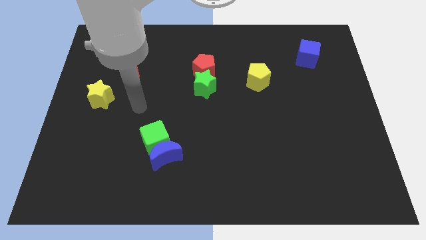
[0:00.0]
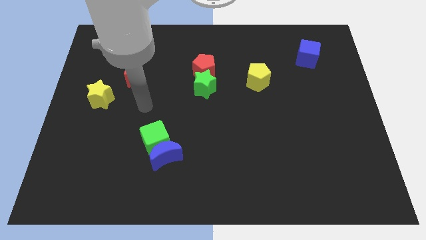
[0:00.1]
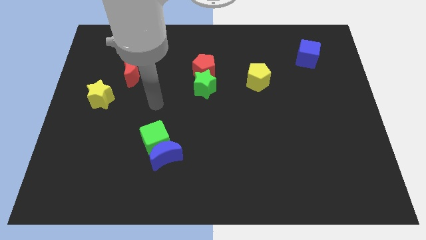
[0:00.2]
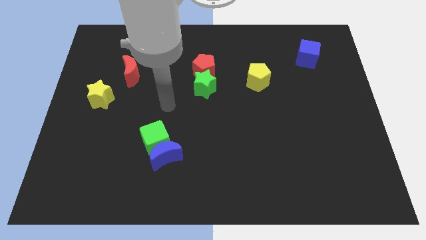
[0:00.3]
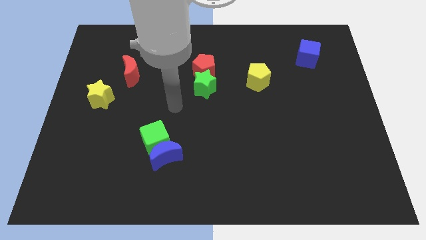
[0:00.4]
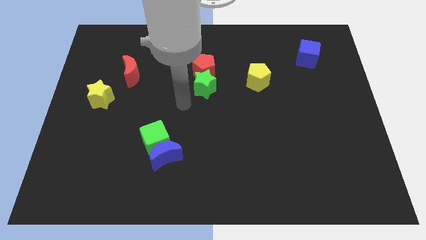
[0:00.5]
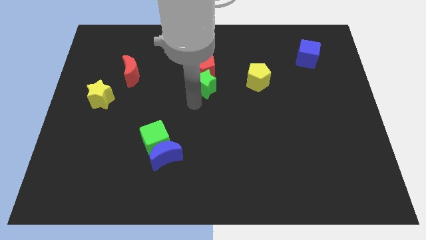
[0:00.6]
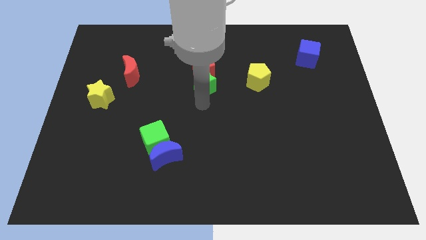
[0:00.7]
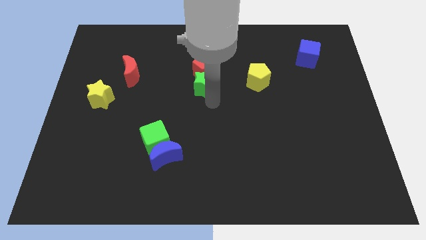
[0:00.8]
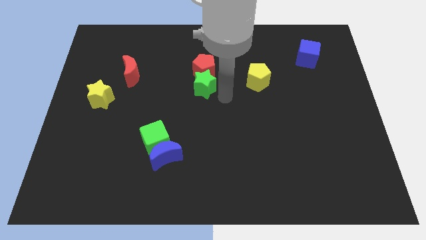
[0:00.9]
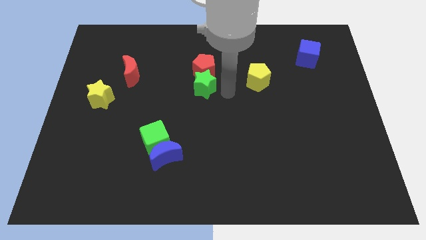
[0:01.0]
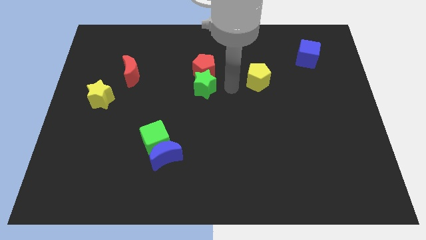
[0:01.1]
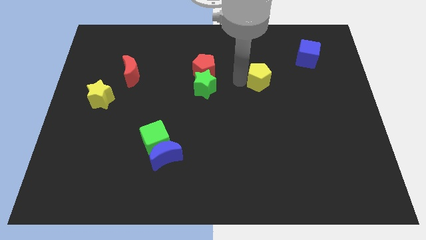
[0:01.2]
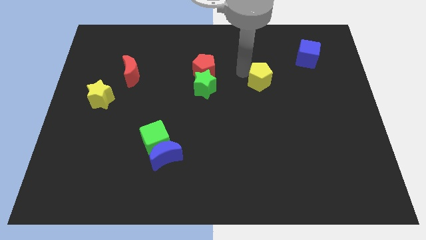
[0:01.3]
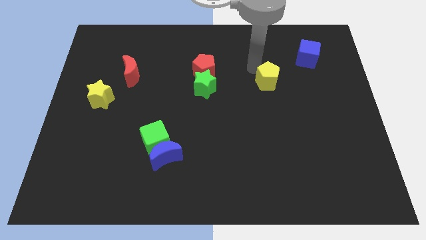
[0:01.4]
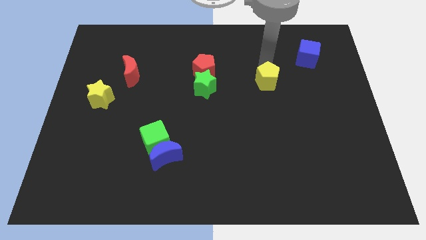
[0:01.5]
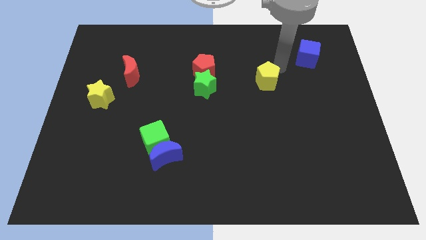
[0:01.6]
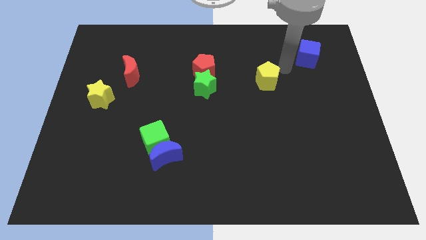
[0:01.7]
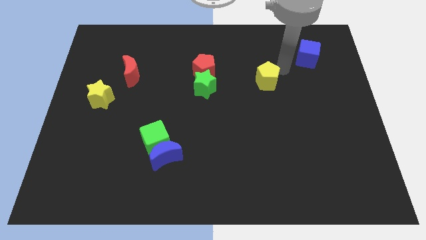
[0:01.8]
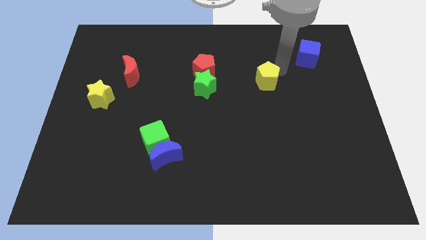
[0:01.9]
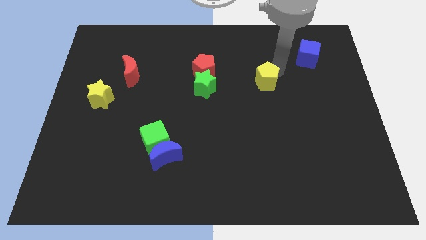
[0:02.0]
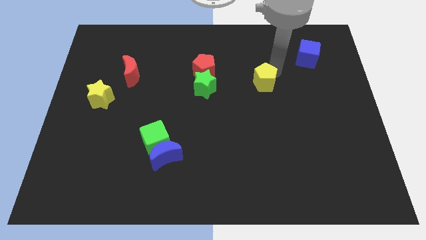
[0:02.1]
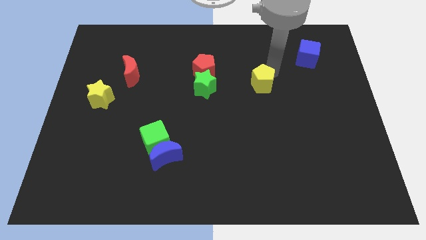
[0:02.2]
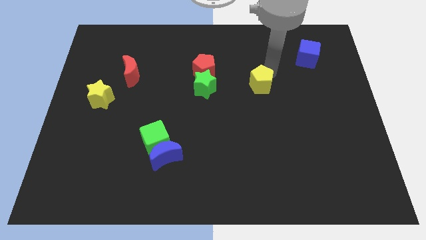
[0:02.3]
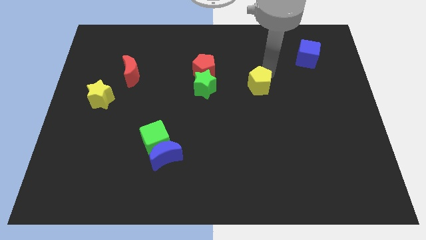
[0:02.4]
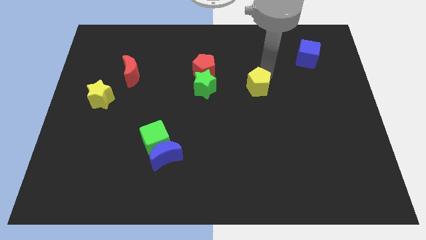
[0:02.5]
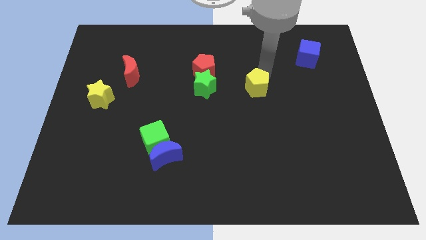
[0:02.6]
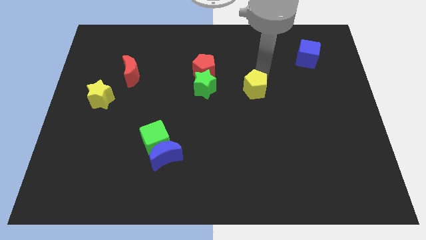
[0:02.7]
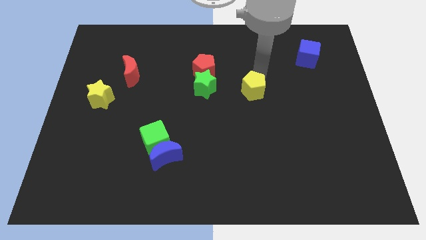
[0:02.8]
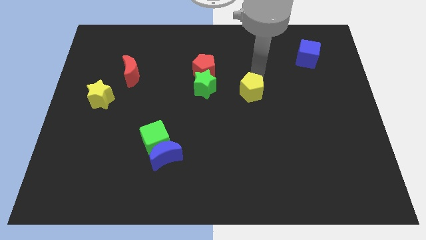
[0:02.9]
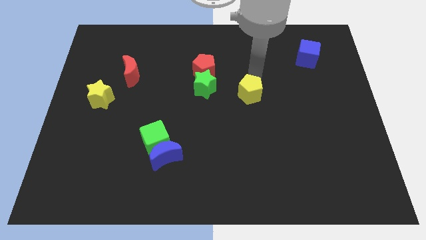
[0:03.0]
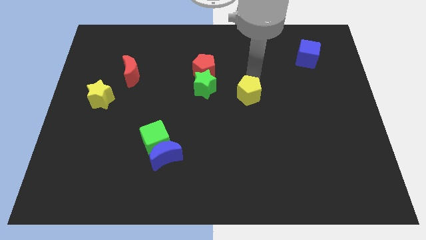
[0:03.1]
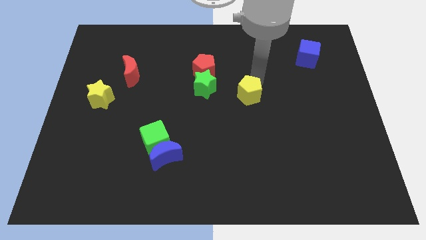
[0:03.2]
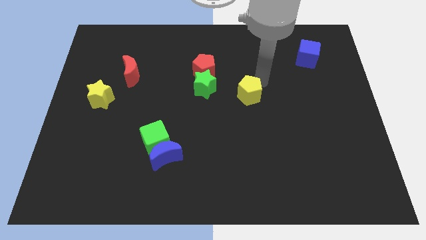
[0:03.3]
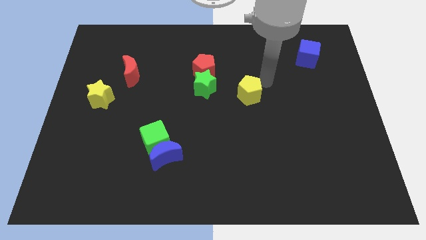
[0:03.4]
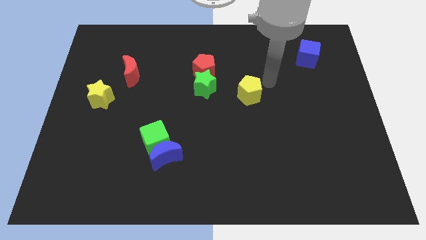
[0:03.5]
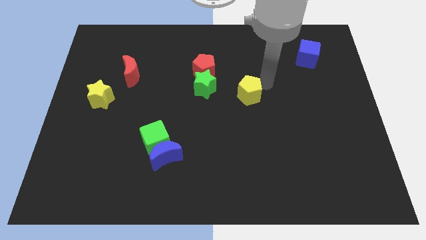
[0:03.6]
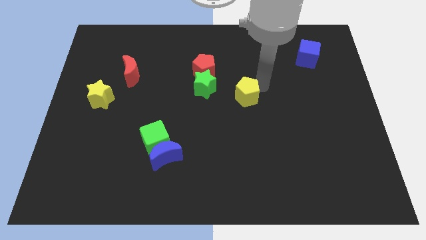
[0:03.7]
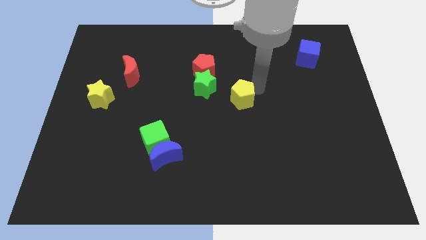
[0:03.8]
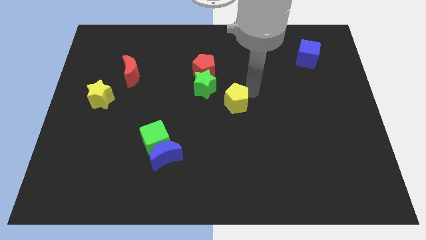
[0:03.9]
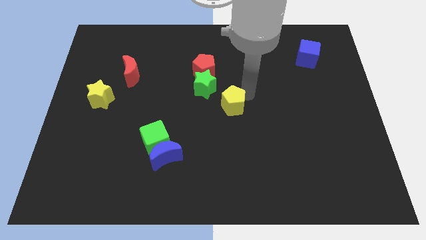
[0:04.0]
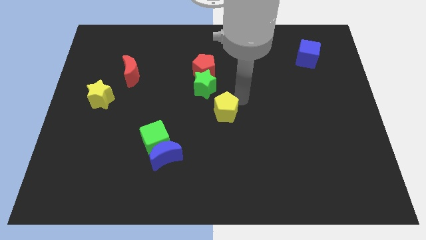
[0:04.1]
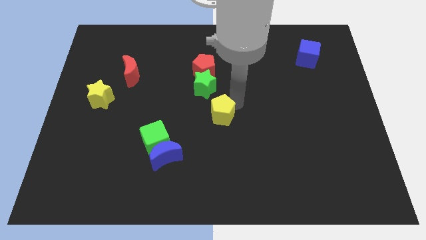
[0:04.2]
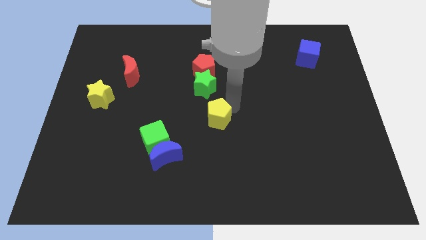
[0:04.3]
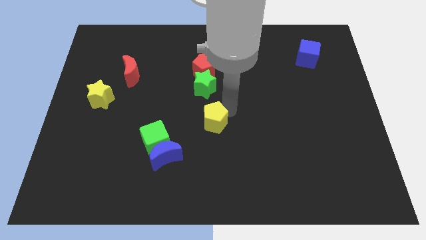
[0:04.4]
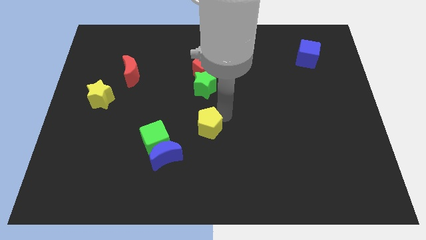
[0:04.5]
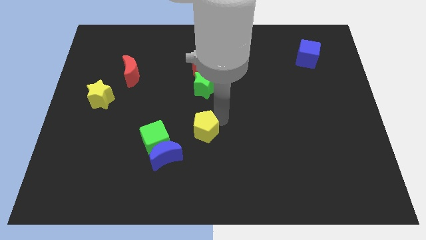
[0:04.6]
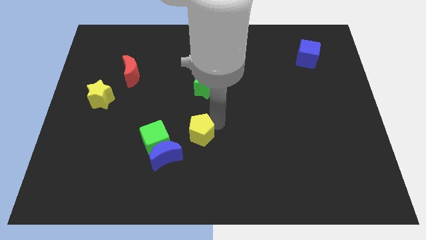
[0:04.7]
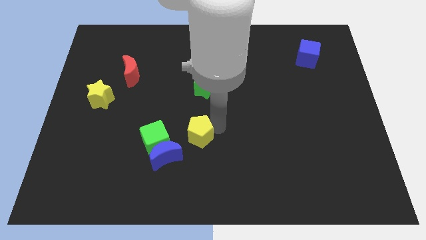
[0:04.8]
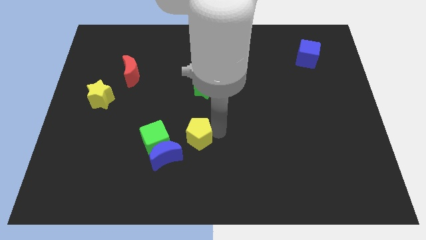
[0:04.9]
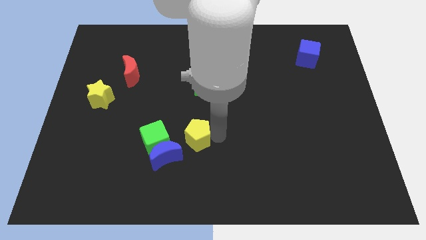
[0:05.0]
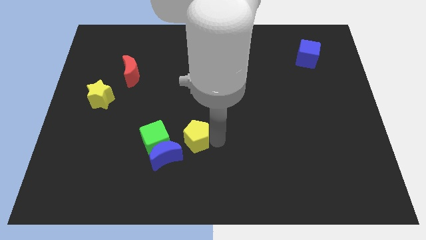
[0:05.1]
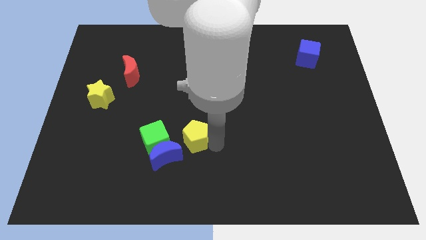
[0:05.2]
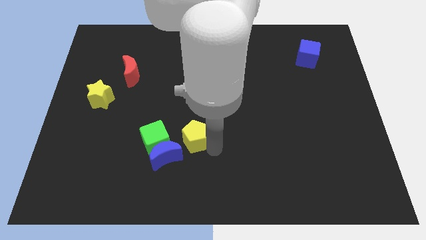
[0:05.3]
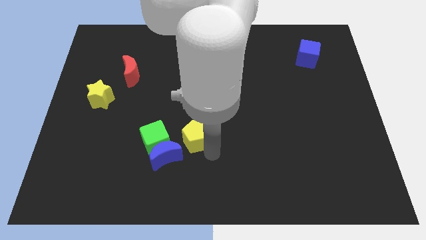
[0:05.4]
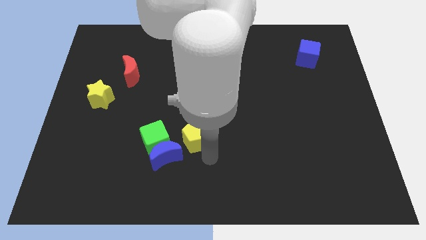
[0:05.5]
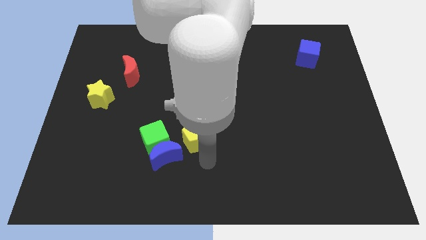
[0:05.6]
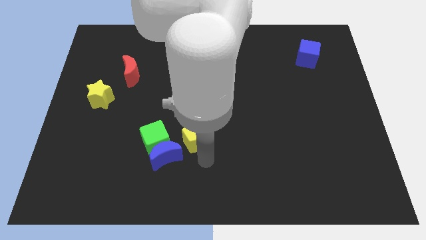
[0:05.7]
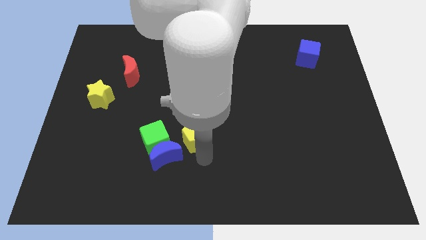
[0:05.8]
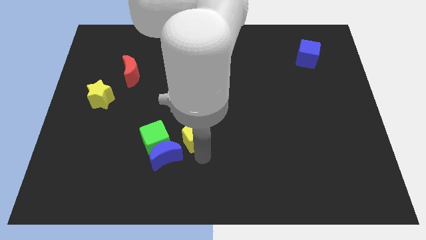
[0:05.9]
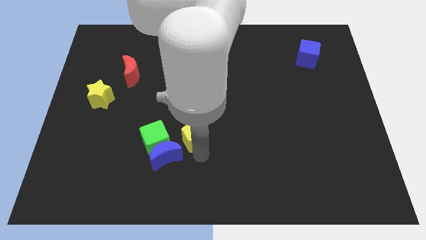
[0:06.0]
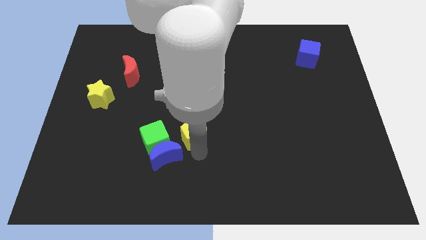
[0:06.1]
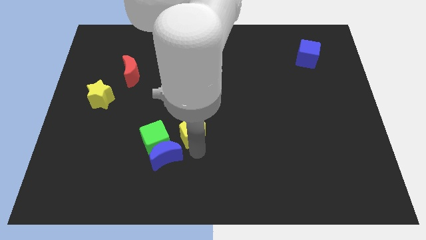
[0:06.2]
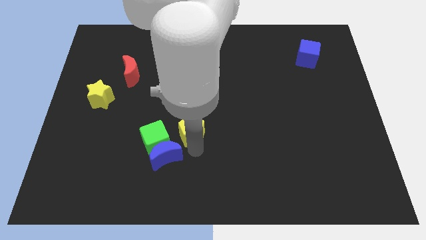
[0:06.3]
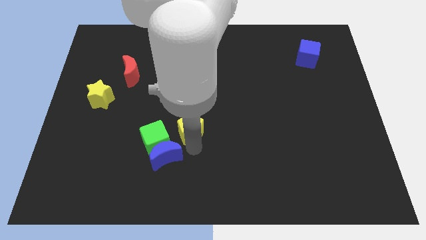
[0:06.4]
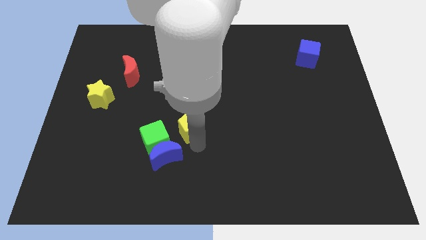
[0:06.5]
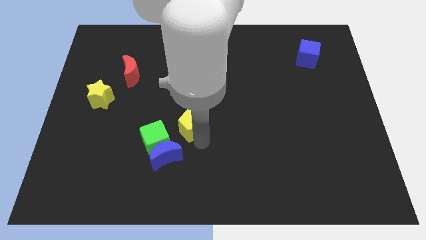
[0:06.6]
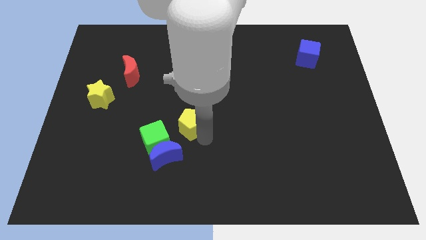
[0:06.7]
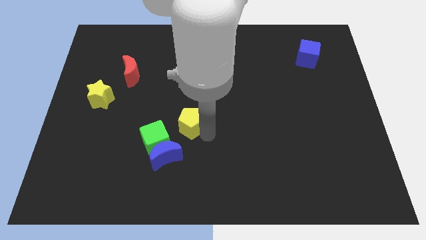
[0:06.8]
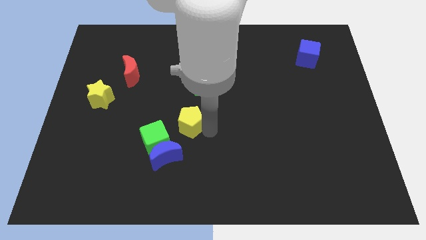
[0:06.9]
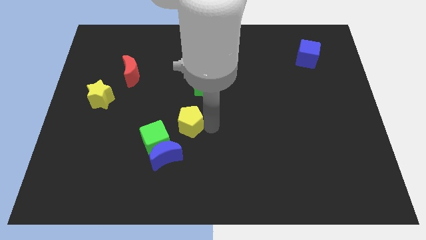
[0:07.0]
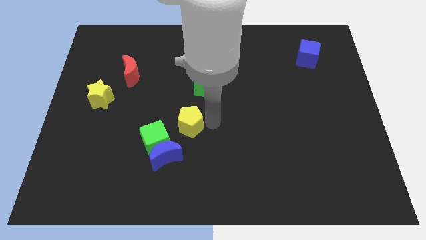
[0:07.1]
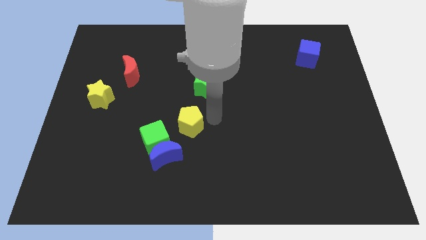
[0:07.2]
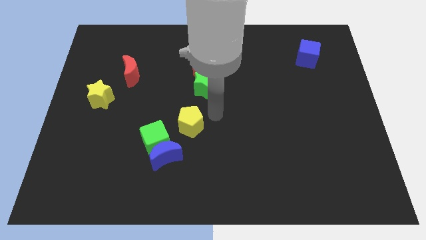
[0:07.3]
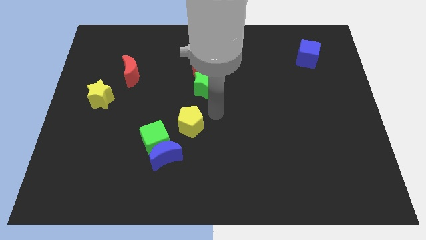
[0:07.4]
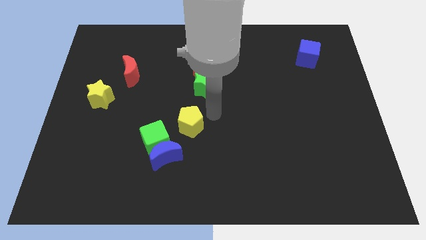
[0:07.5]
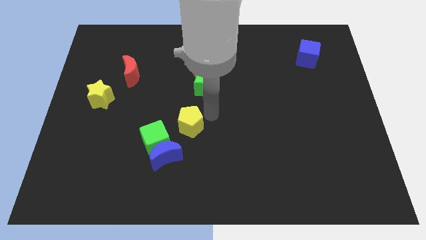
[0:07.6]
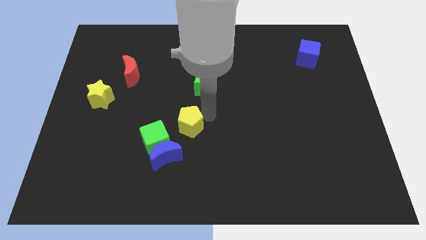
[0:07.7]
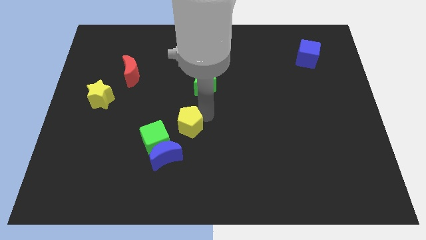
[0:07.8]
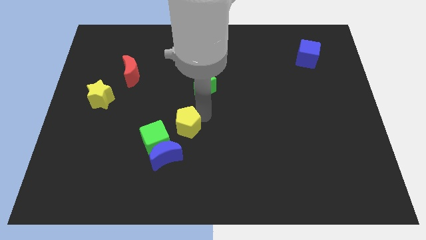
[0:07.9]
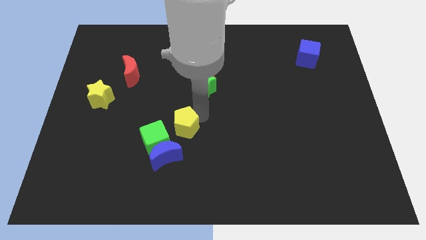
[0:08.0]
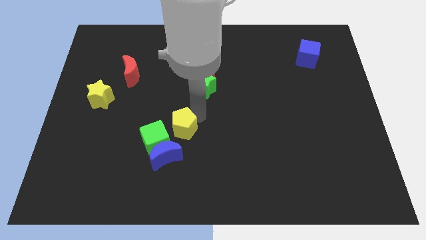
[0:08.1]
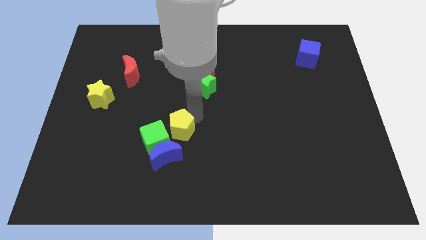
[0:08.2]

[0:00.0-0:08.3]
move the yellow pentagon to the green cube
